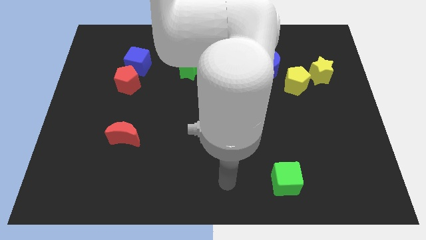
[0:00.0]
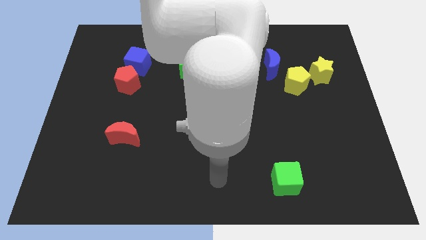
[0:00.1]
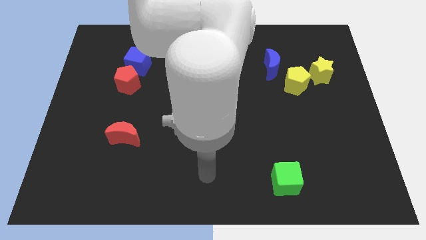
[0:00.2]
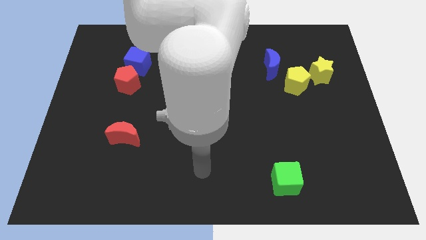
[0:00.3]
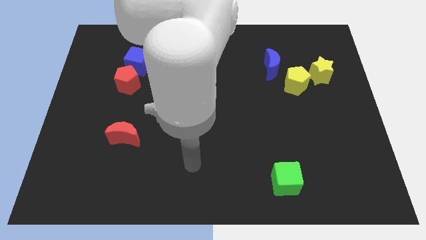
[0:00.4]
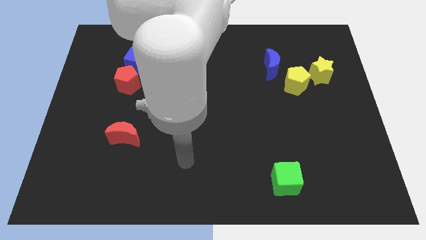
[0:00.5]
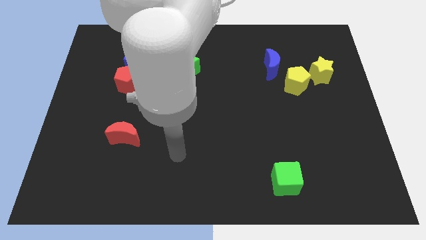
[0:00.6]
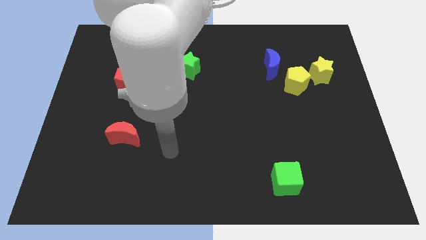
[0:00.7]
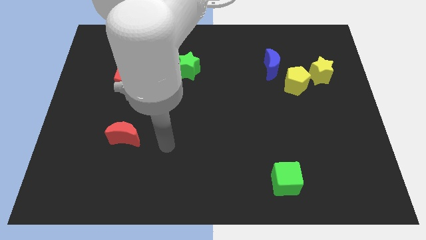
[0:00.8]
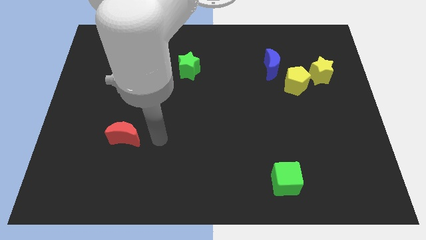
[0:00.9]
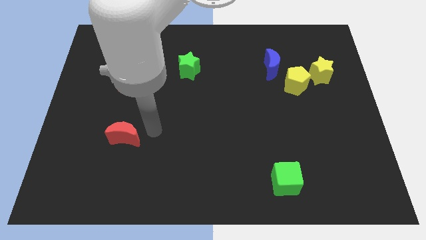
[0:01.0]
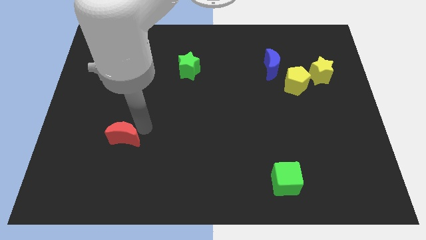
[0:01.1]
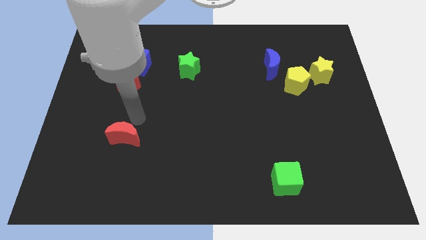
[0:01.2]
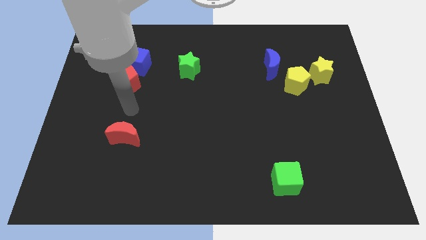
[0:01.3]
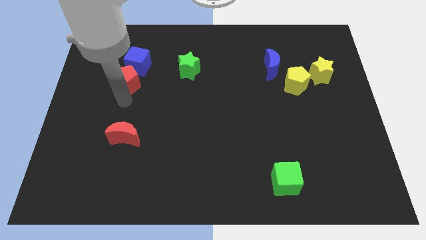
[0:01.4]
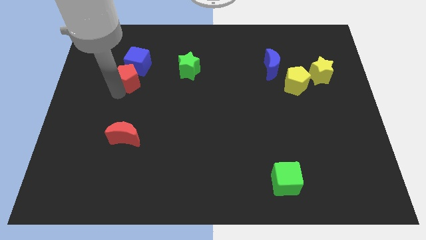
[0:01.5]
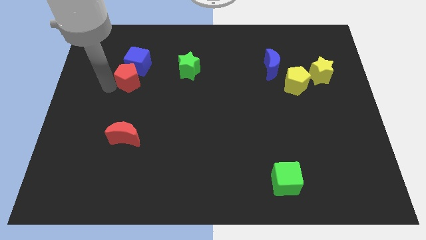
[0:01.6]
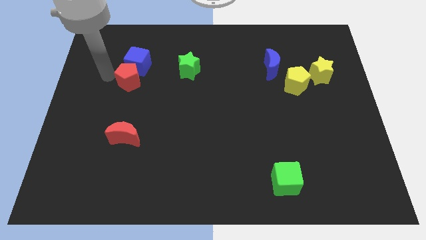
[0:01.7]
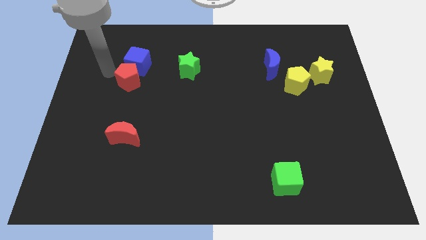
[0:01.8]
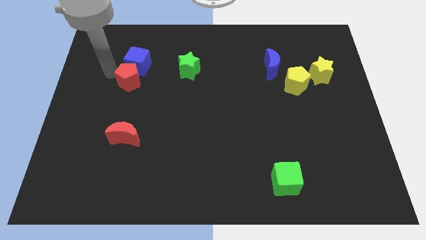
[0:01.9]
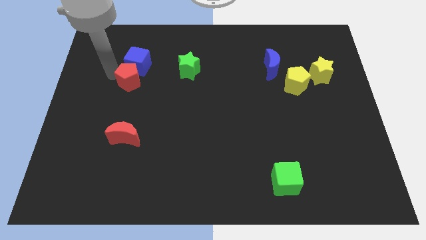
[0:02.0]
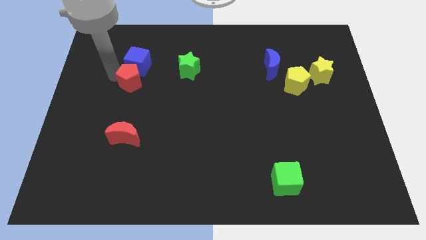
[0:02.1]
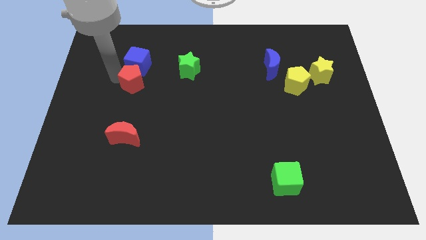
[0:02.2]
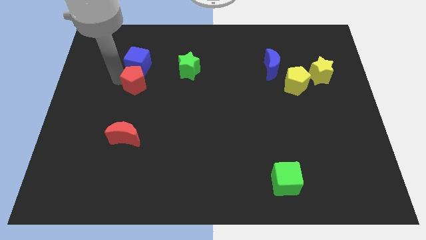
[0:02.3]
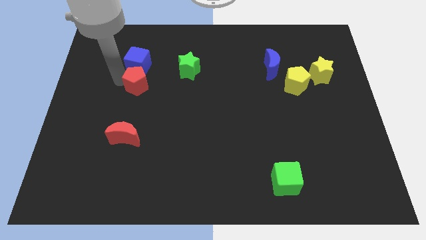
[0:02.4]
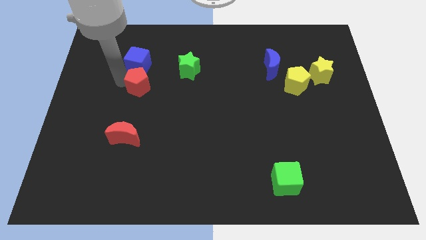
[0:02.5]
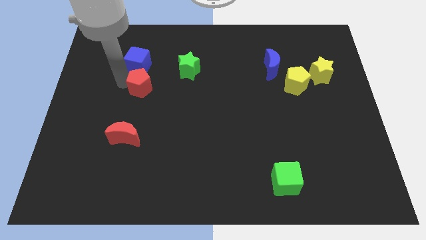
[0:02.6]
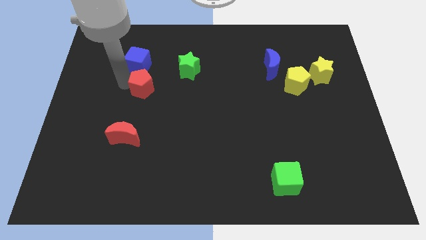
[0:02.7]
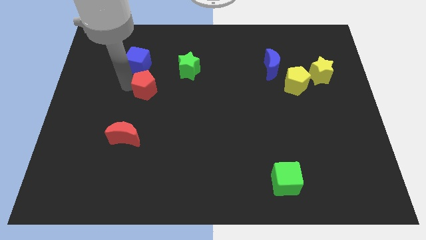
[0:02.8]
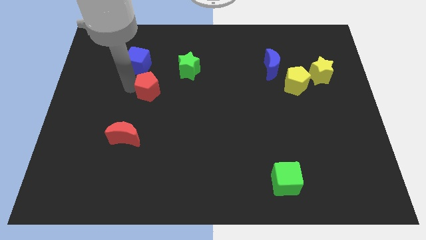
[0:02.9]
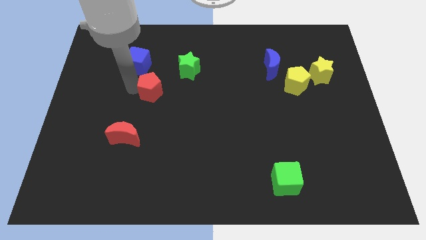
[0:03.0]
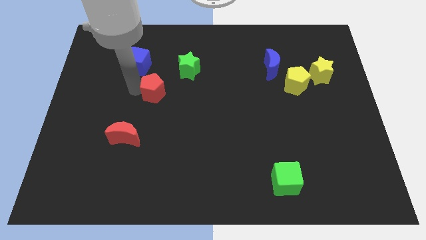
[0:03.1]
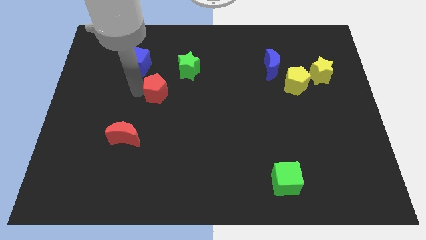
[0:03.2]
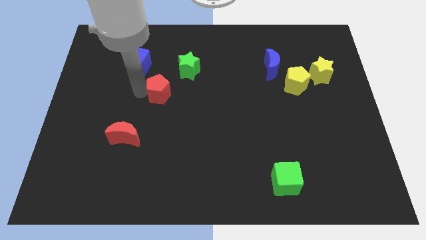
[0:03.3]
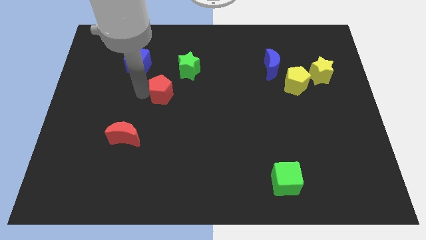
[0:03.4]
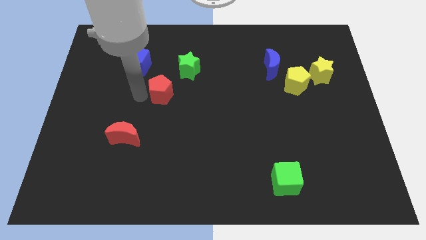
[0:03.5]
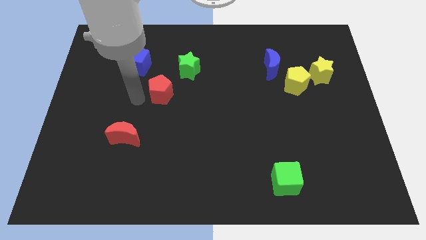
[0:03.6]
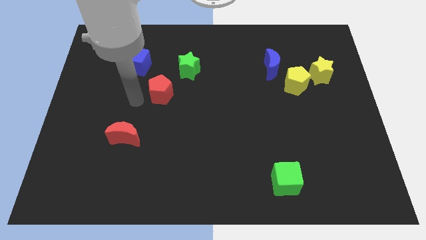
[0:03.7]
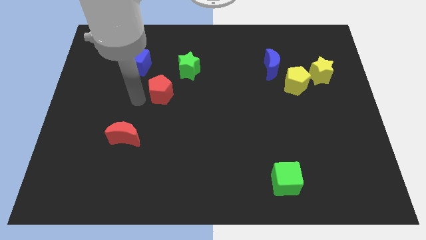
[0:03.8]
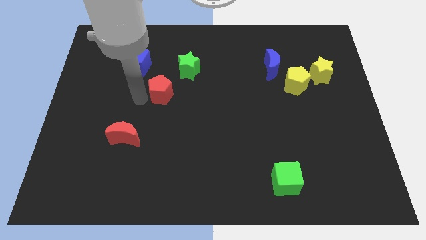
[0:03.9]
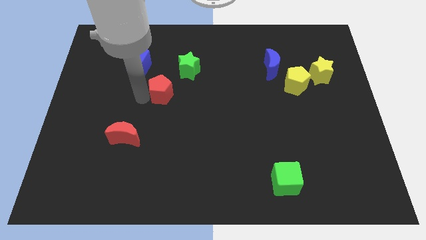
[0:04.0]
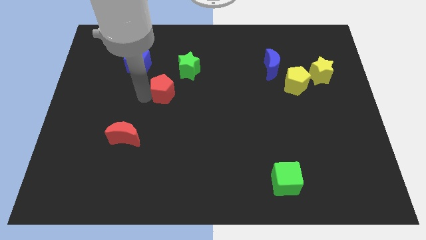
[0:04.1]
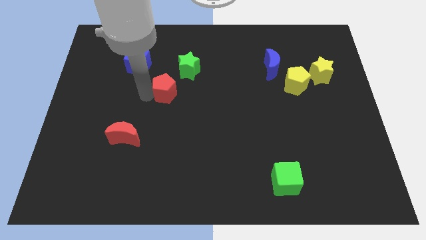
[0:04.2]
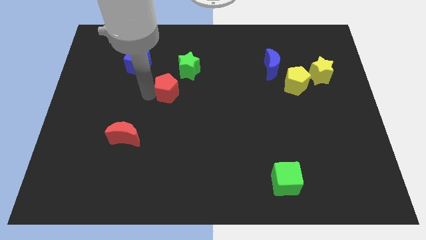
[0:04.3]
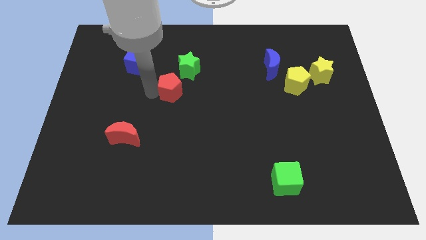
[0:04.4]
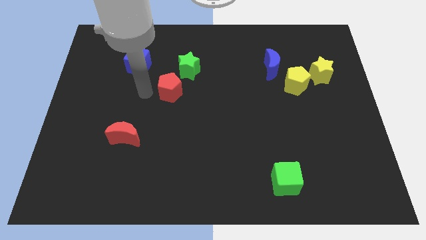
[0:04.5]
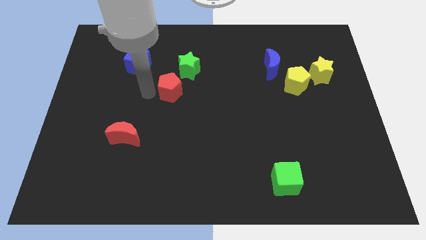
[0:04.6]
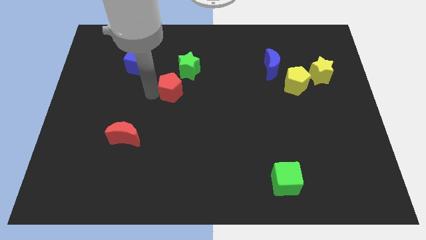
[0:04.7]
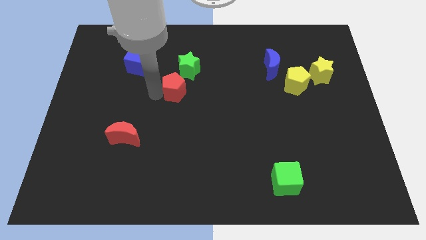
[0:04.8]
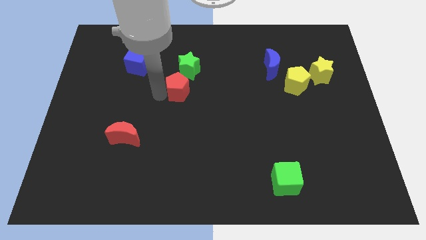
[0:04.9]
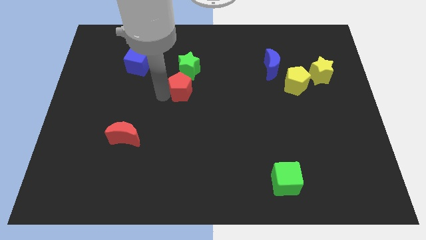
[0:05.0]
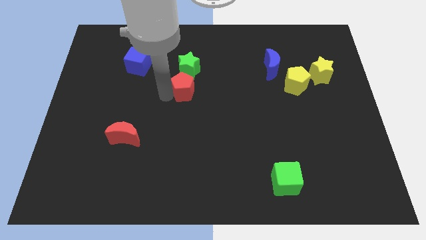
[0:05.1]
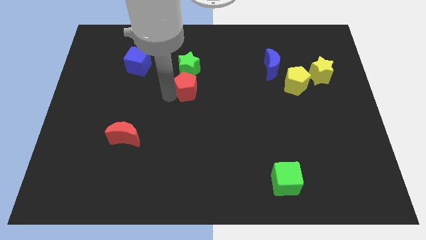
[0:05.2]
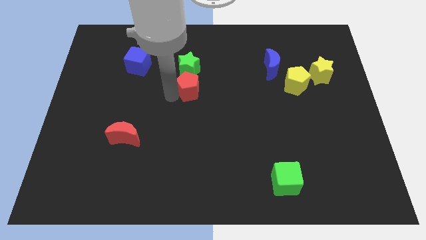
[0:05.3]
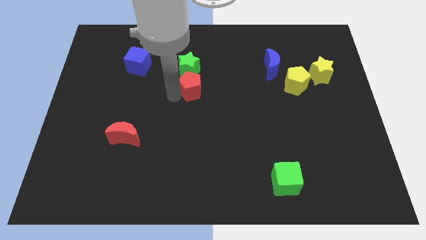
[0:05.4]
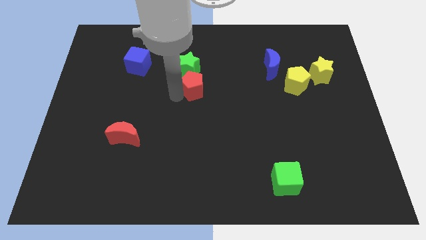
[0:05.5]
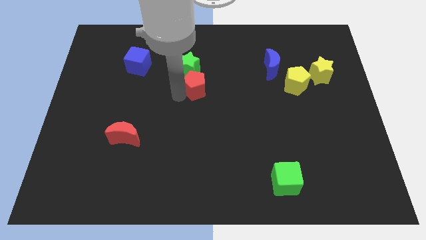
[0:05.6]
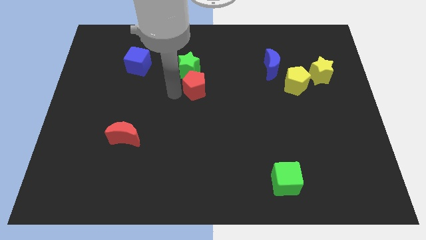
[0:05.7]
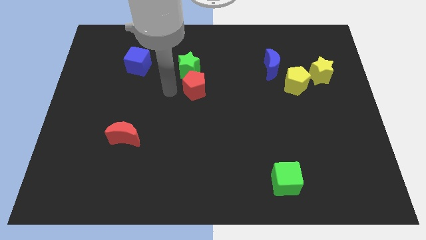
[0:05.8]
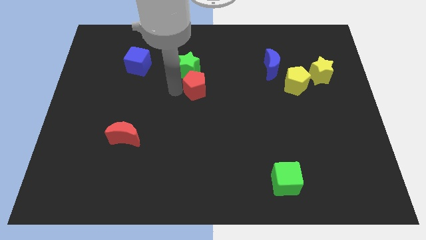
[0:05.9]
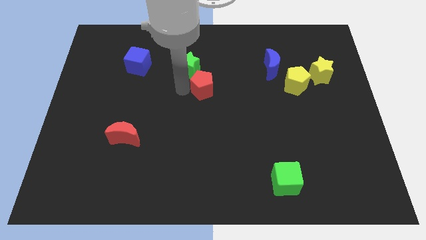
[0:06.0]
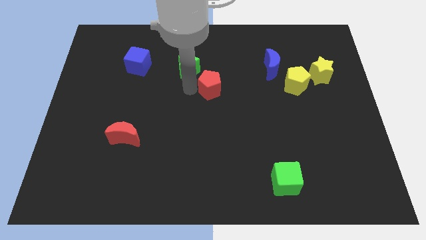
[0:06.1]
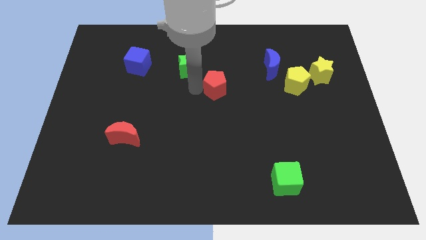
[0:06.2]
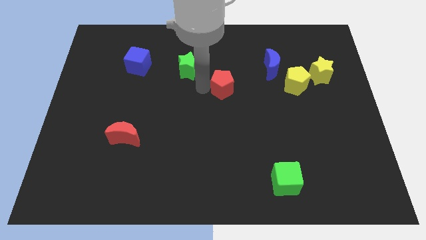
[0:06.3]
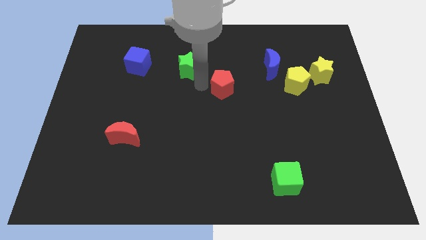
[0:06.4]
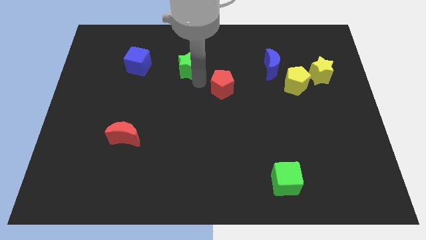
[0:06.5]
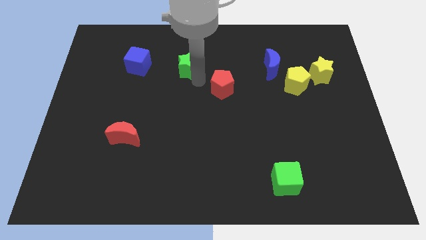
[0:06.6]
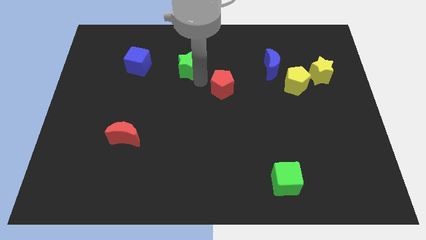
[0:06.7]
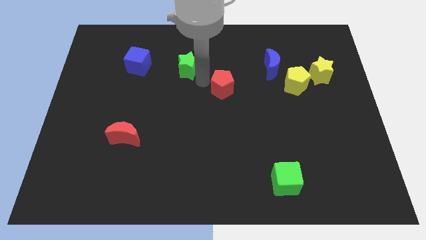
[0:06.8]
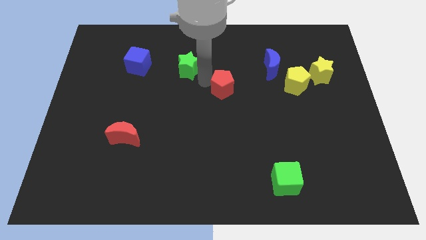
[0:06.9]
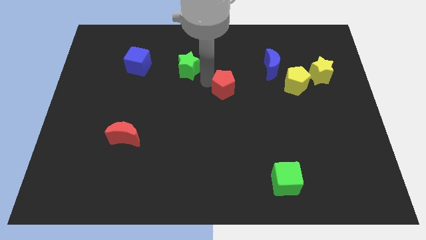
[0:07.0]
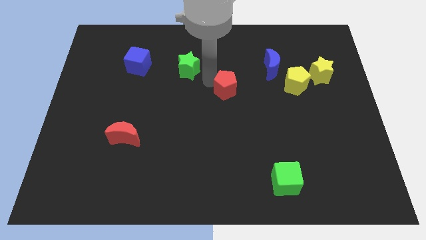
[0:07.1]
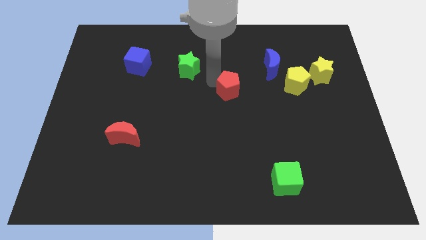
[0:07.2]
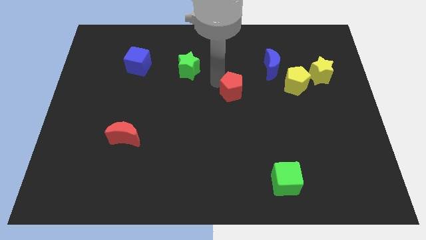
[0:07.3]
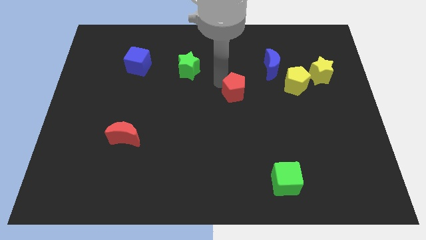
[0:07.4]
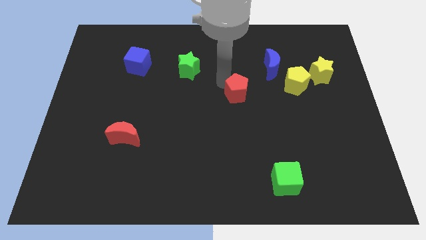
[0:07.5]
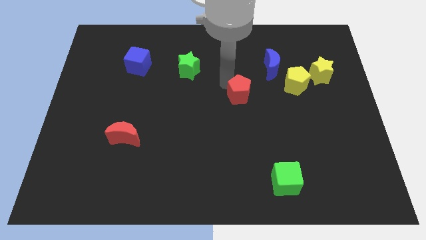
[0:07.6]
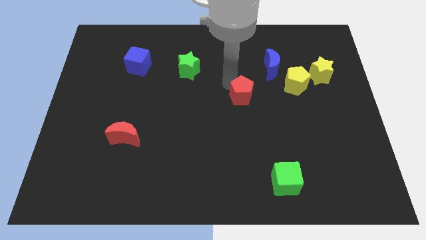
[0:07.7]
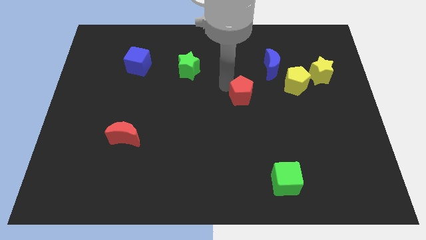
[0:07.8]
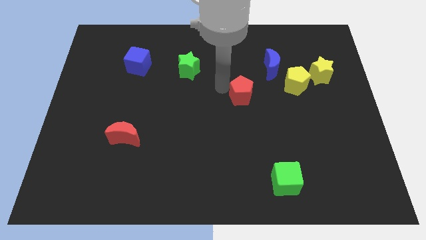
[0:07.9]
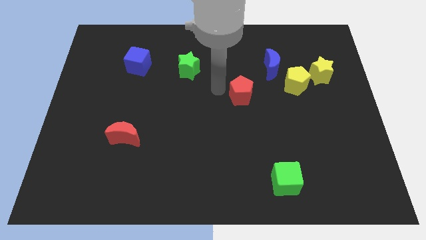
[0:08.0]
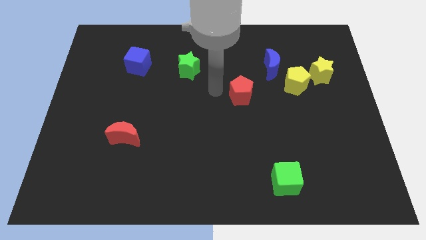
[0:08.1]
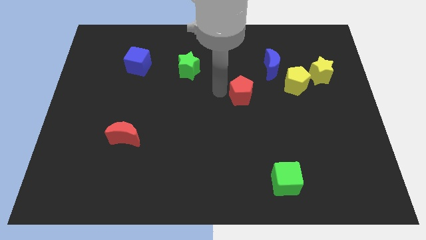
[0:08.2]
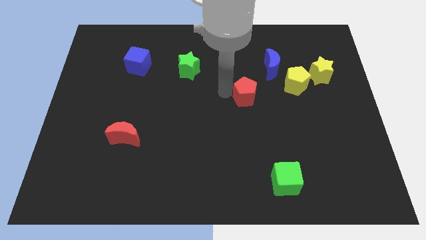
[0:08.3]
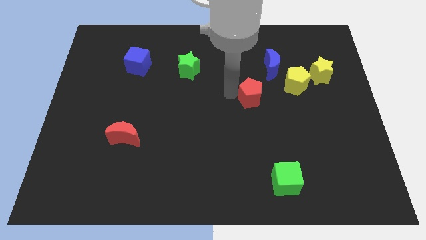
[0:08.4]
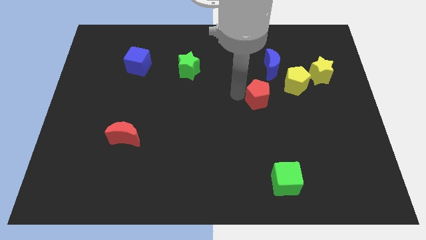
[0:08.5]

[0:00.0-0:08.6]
move the red pentagon to the bottom left of the yellow pentagon
